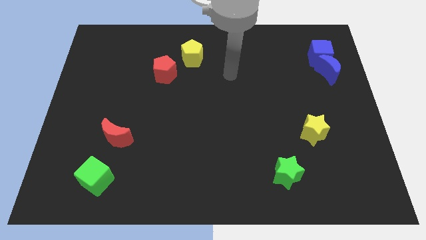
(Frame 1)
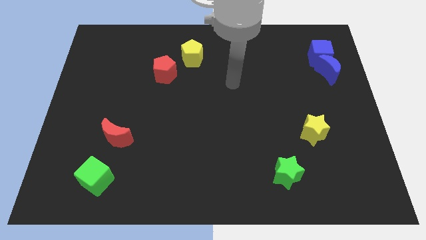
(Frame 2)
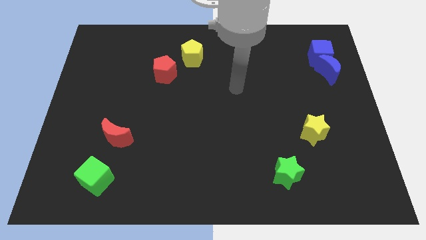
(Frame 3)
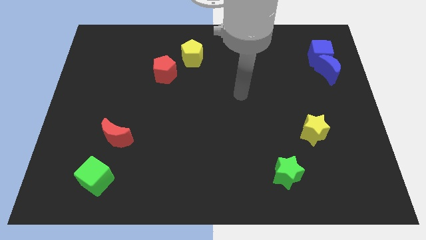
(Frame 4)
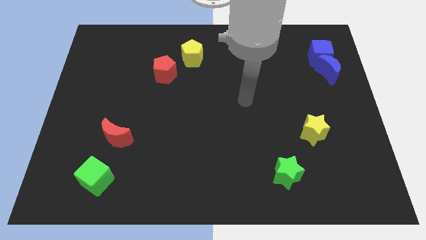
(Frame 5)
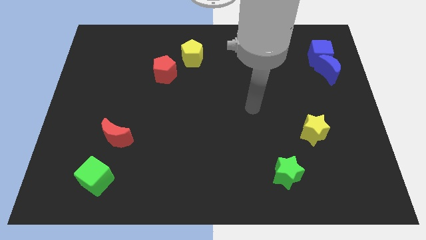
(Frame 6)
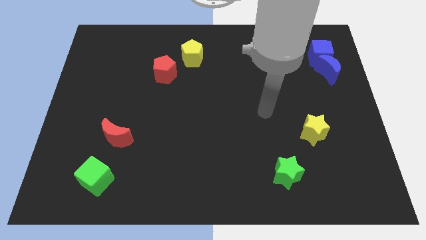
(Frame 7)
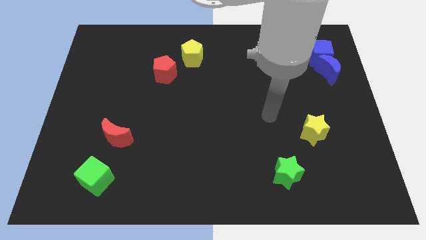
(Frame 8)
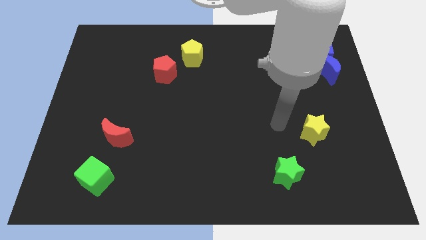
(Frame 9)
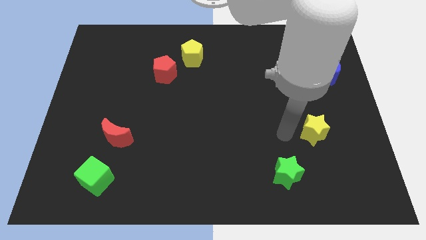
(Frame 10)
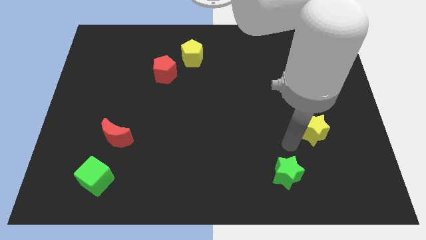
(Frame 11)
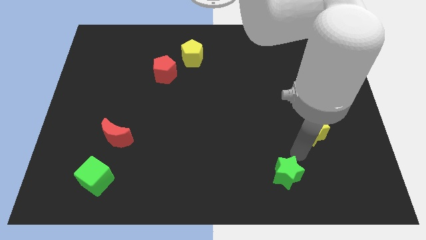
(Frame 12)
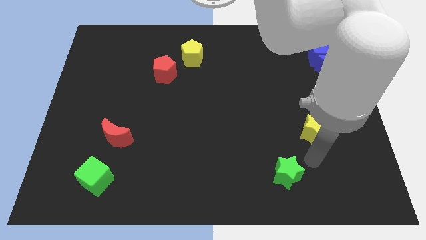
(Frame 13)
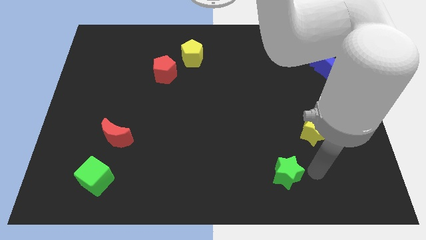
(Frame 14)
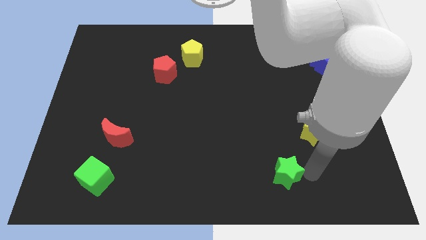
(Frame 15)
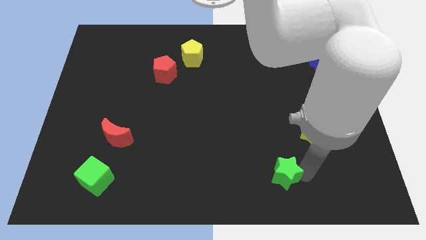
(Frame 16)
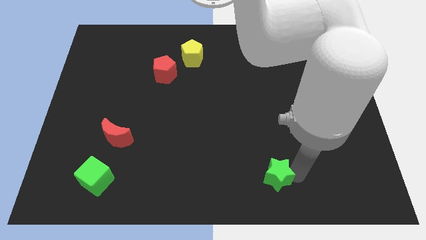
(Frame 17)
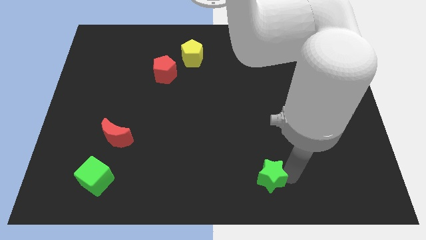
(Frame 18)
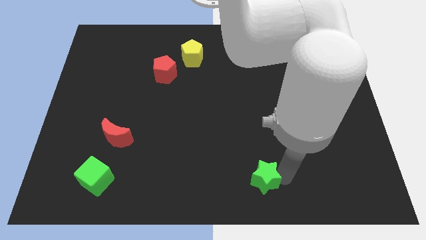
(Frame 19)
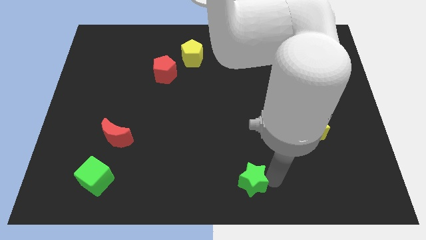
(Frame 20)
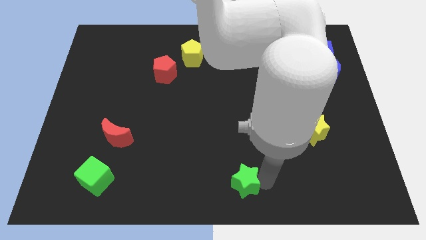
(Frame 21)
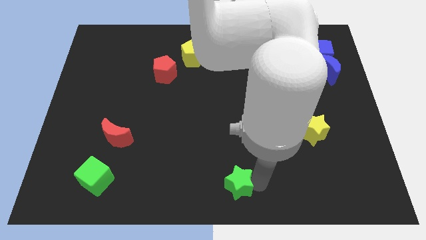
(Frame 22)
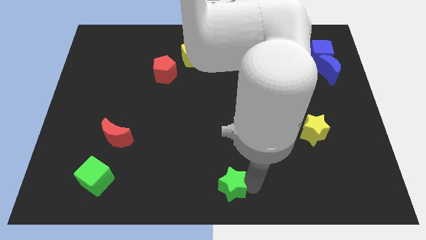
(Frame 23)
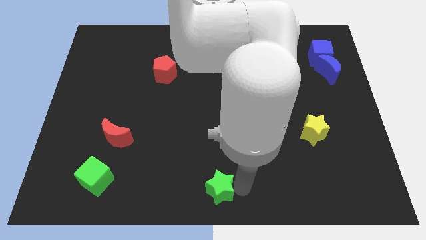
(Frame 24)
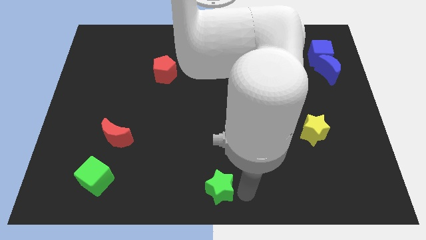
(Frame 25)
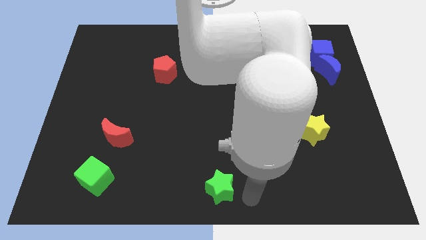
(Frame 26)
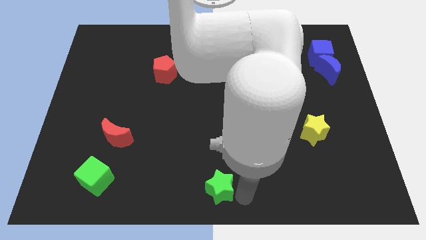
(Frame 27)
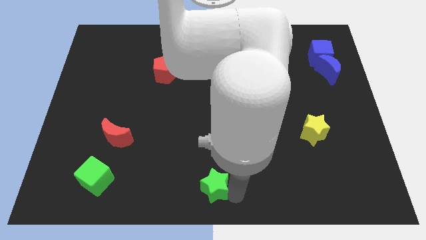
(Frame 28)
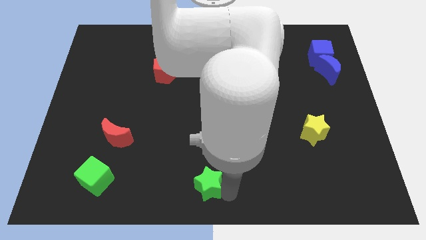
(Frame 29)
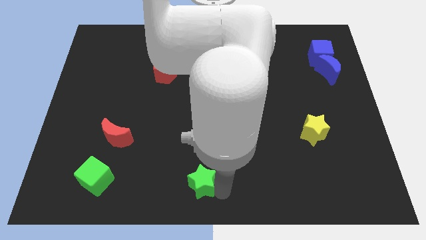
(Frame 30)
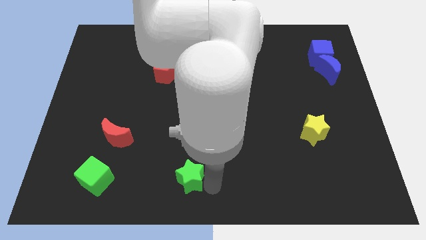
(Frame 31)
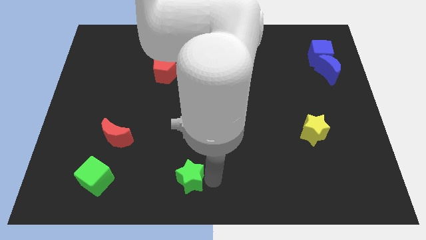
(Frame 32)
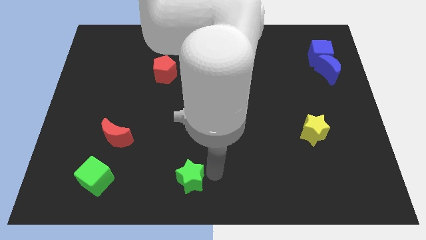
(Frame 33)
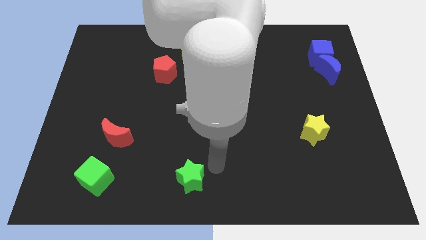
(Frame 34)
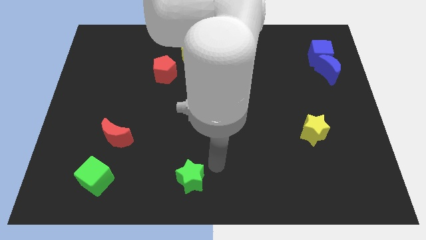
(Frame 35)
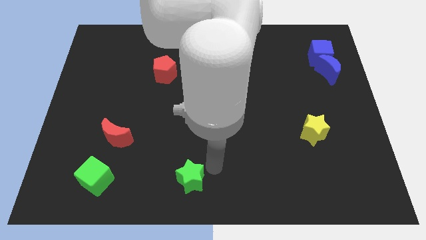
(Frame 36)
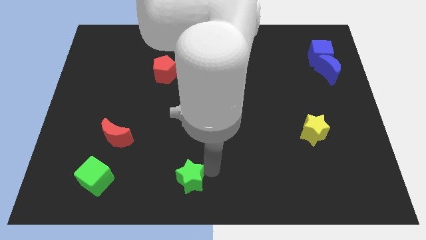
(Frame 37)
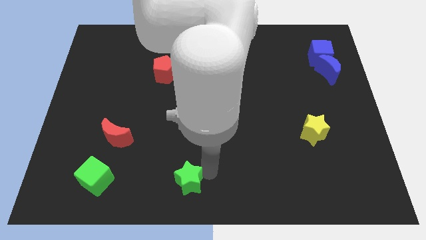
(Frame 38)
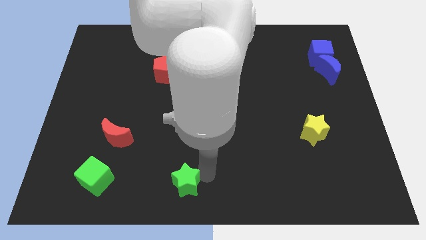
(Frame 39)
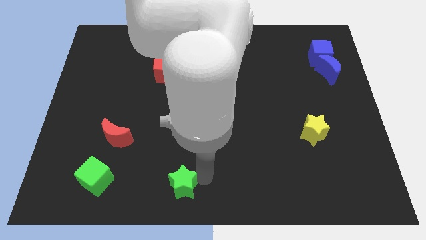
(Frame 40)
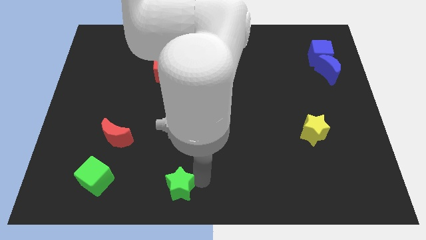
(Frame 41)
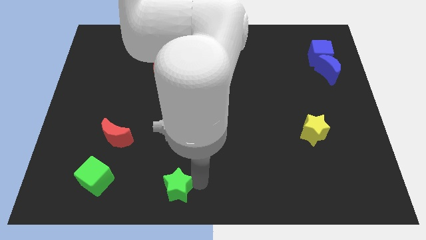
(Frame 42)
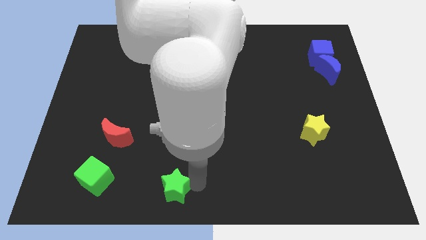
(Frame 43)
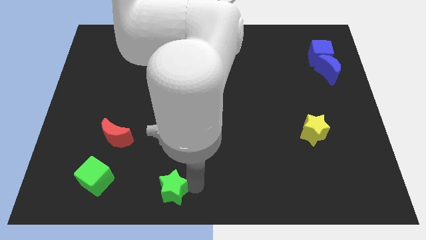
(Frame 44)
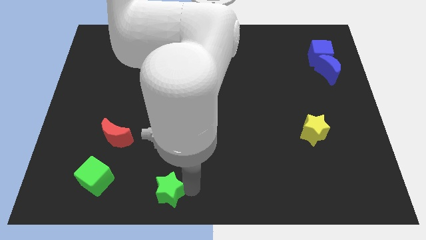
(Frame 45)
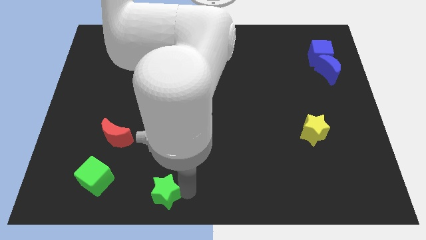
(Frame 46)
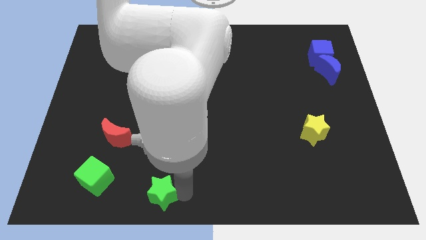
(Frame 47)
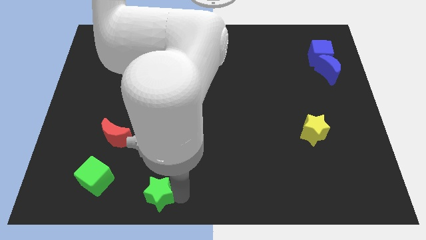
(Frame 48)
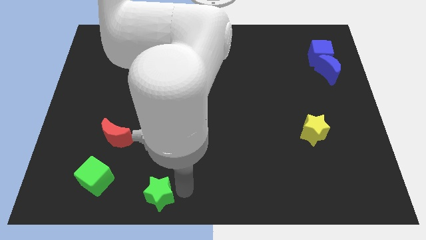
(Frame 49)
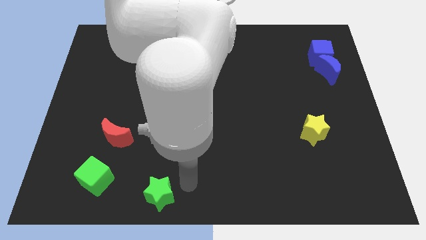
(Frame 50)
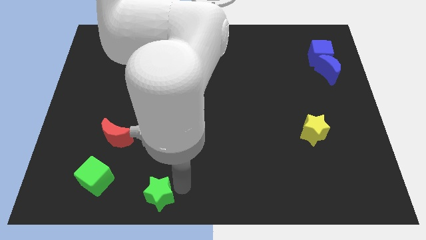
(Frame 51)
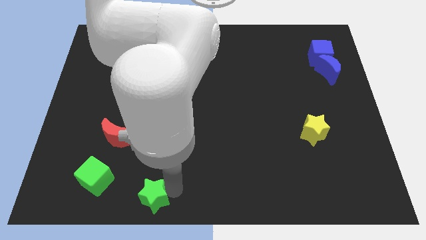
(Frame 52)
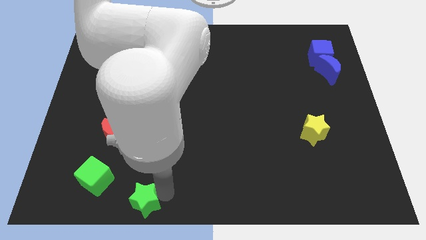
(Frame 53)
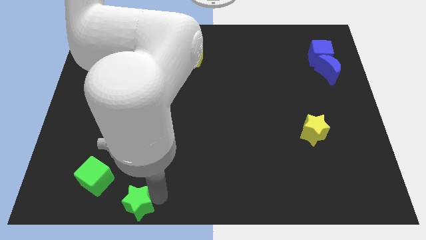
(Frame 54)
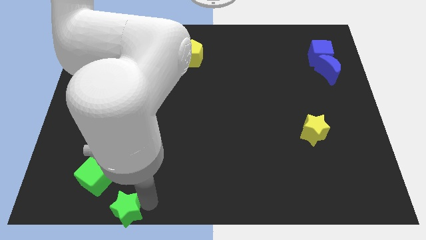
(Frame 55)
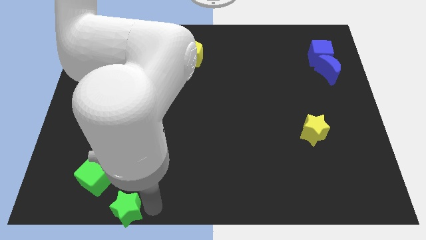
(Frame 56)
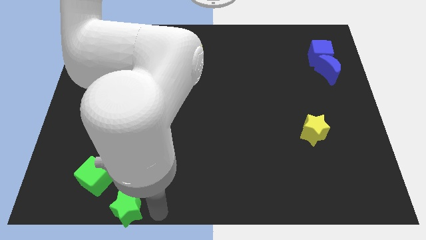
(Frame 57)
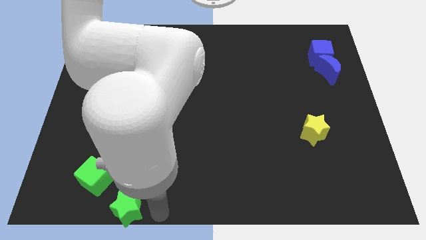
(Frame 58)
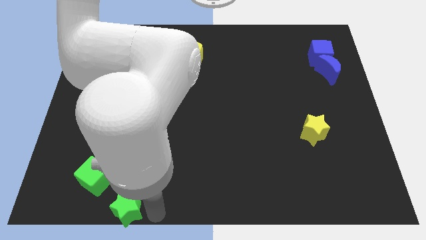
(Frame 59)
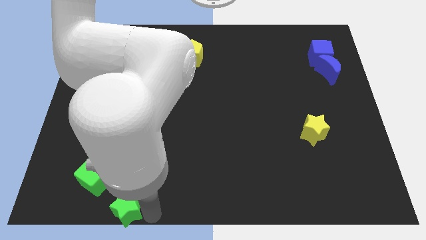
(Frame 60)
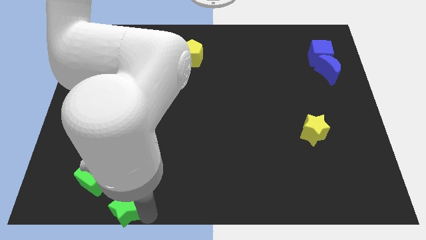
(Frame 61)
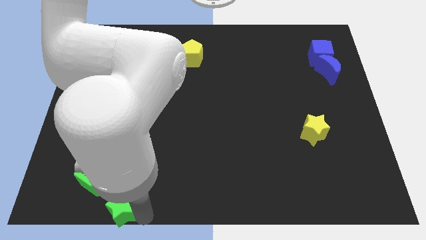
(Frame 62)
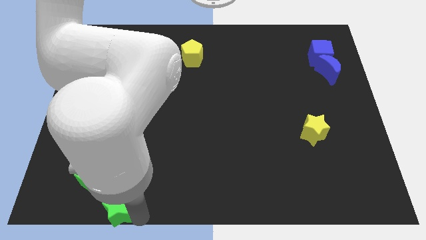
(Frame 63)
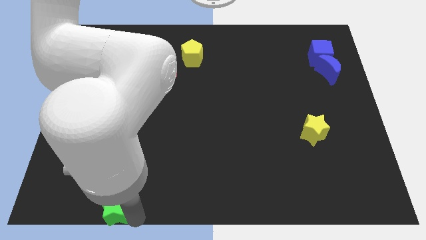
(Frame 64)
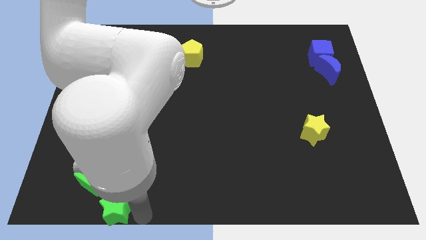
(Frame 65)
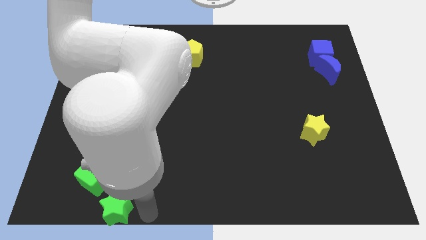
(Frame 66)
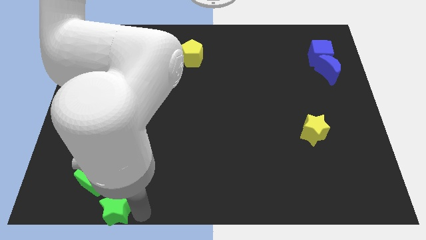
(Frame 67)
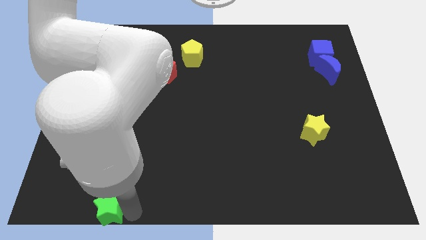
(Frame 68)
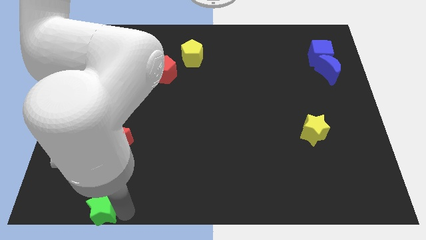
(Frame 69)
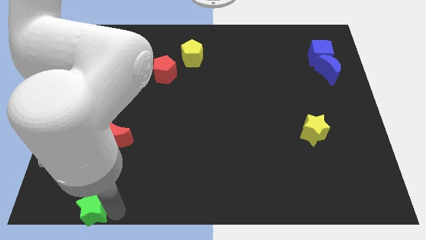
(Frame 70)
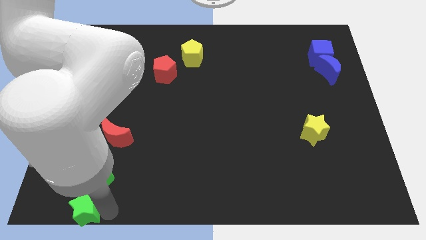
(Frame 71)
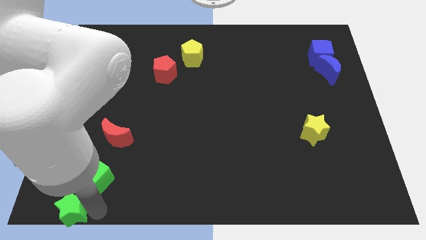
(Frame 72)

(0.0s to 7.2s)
slide the green star to the bottom left corner
